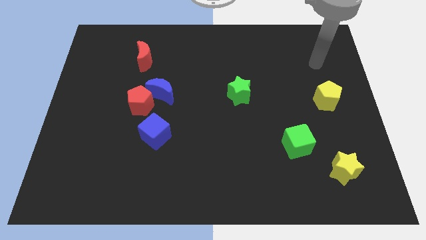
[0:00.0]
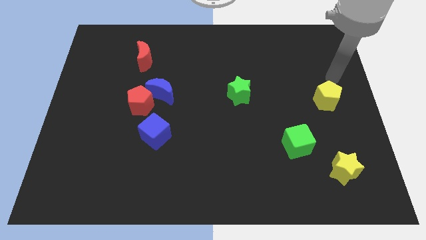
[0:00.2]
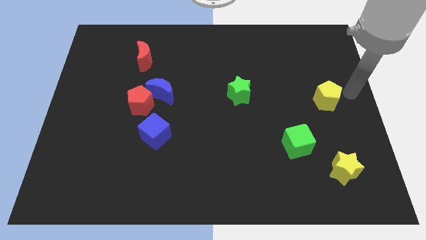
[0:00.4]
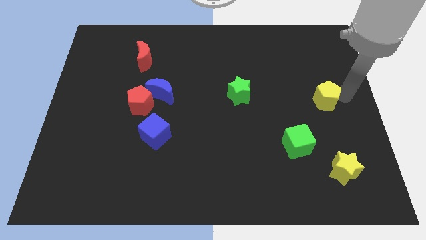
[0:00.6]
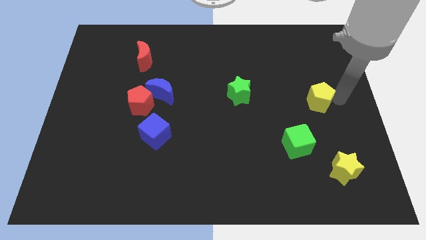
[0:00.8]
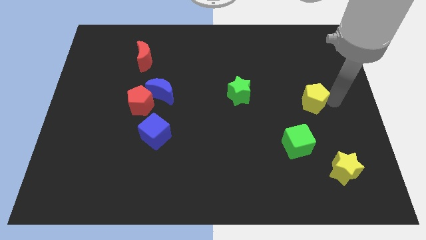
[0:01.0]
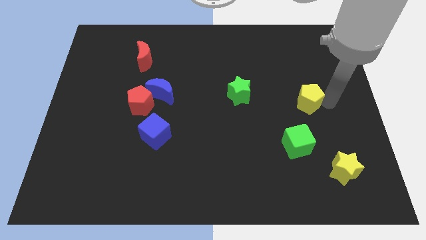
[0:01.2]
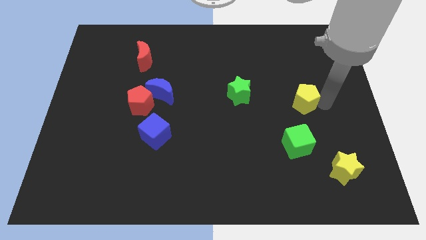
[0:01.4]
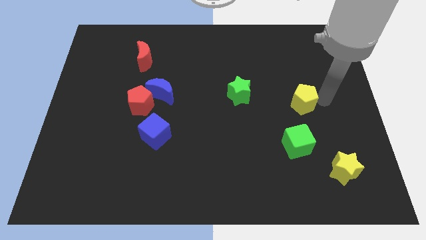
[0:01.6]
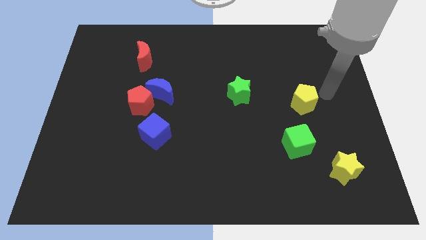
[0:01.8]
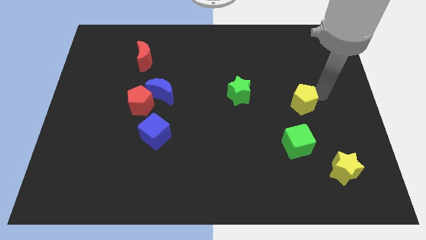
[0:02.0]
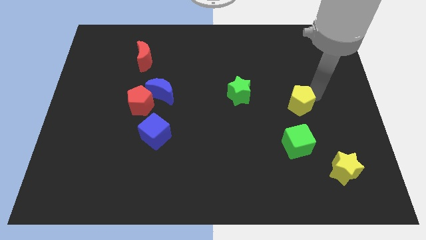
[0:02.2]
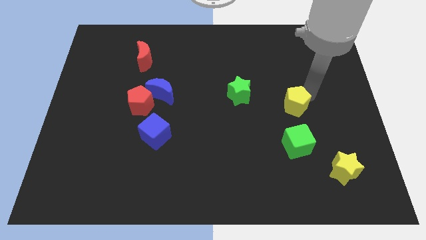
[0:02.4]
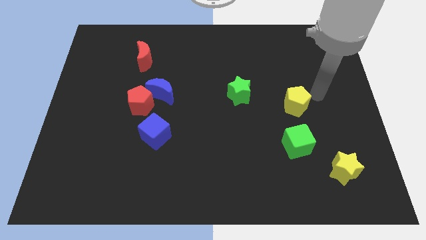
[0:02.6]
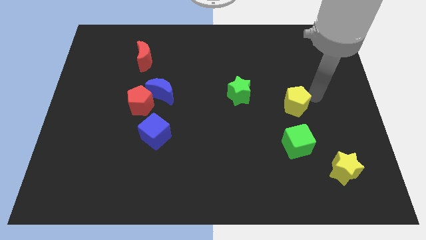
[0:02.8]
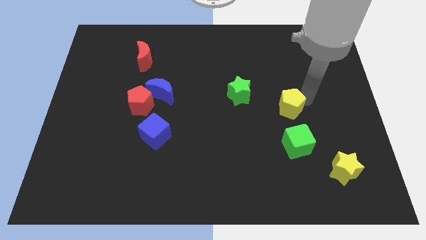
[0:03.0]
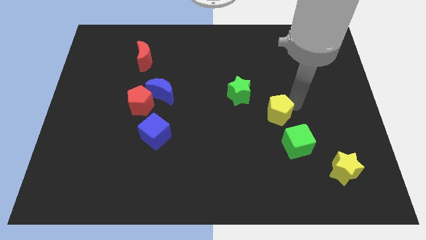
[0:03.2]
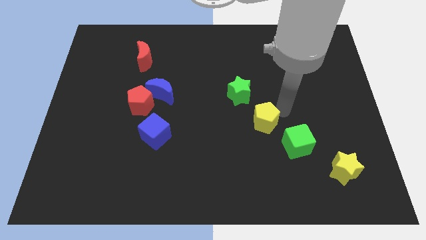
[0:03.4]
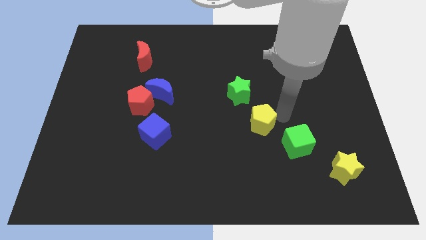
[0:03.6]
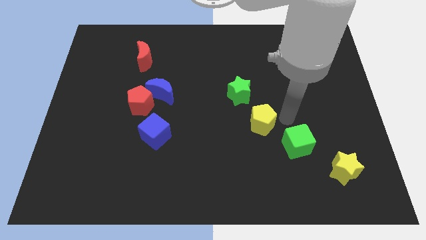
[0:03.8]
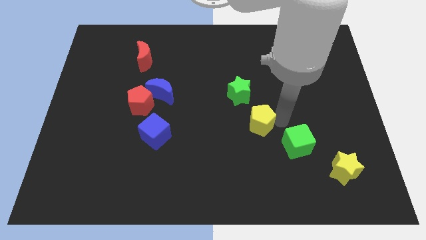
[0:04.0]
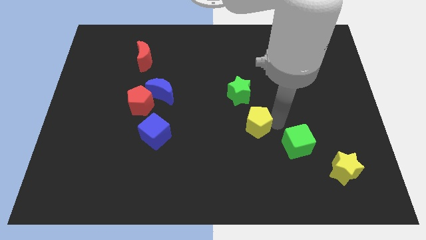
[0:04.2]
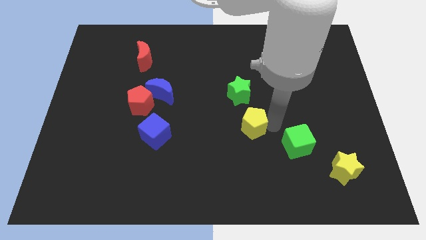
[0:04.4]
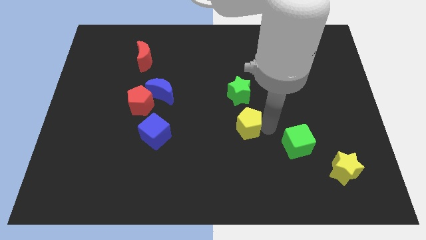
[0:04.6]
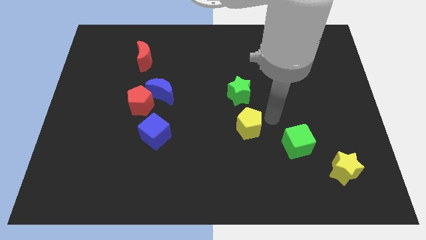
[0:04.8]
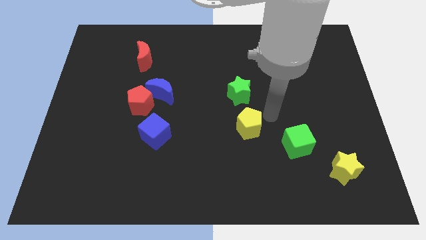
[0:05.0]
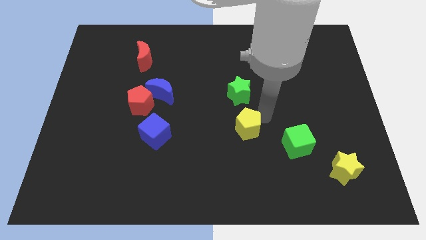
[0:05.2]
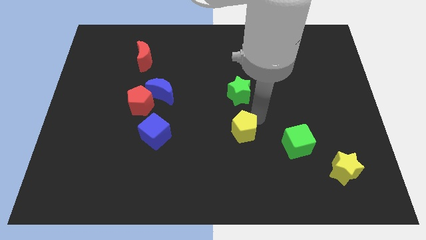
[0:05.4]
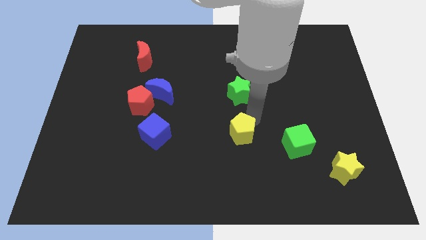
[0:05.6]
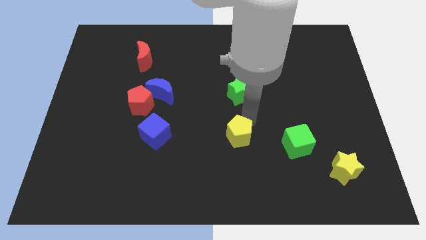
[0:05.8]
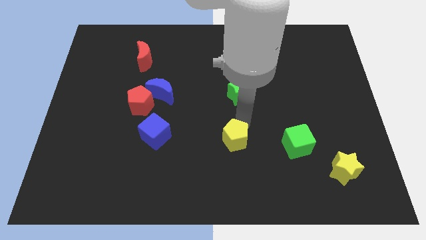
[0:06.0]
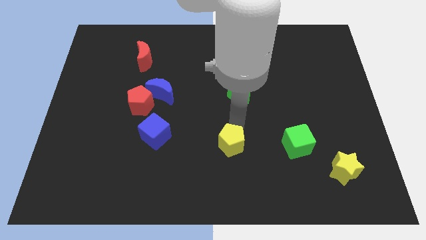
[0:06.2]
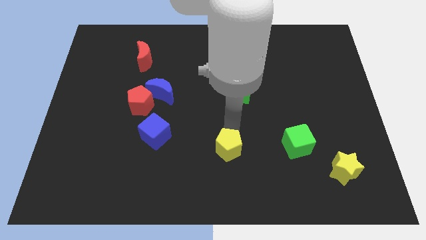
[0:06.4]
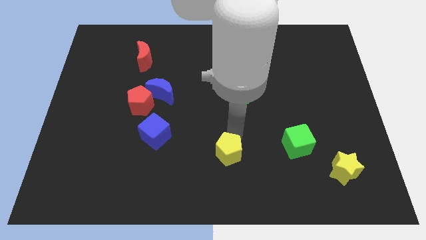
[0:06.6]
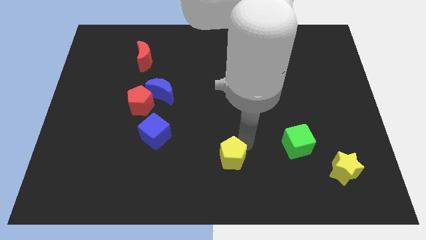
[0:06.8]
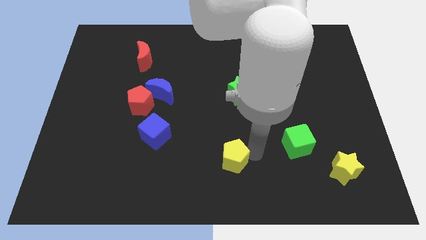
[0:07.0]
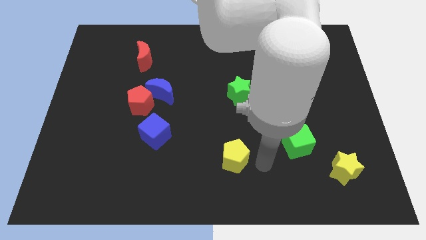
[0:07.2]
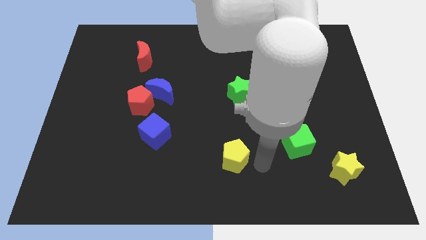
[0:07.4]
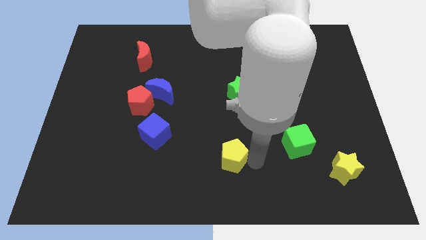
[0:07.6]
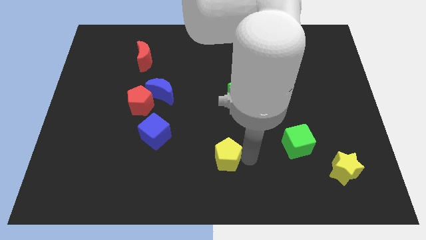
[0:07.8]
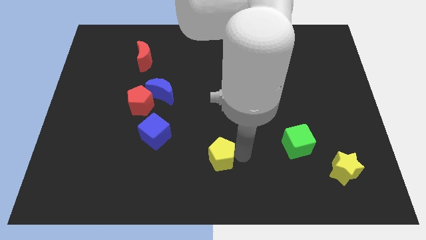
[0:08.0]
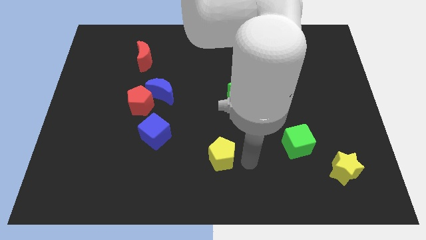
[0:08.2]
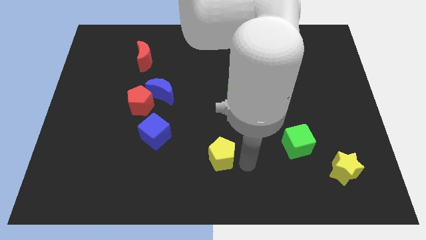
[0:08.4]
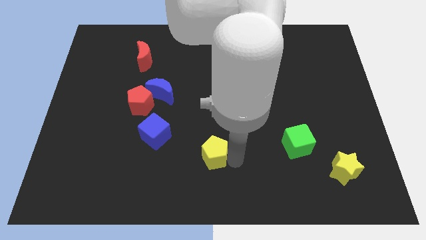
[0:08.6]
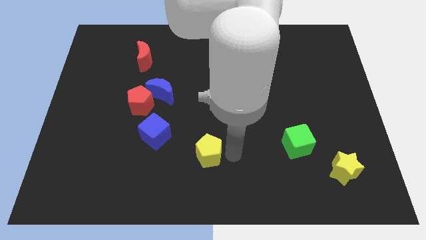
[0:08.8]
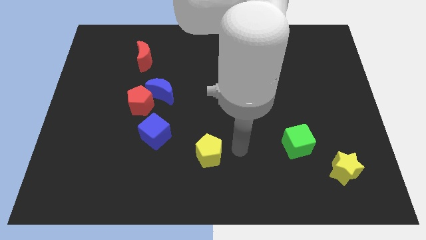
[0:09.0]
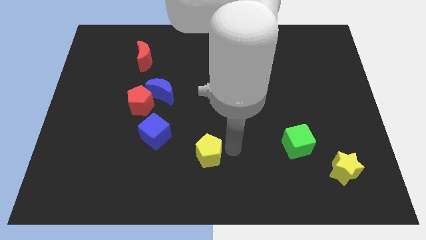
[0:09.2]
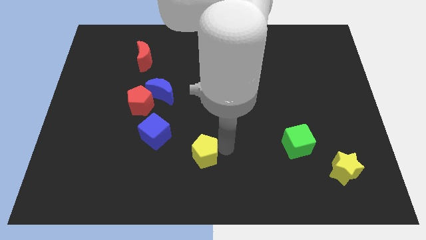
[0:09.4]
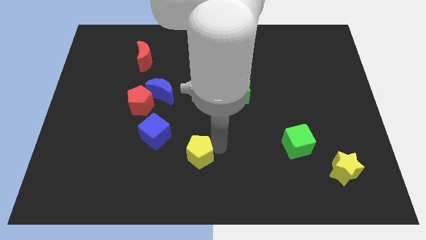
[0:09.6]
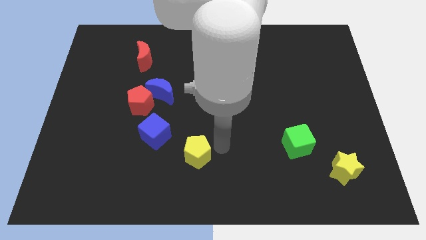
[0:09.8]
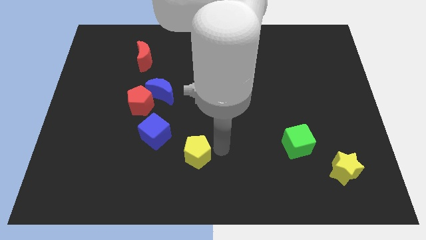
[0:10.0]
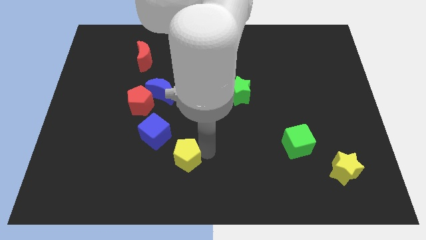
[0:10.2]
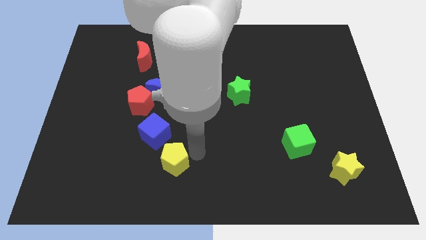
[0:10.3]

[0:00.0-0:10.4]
move the yellow pentagon to the bottom of the blue cube

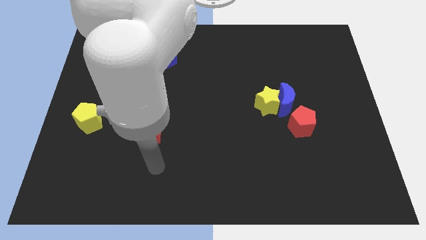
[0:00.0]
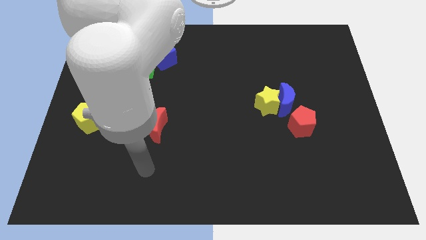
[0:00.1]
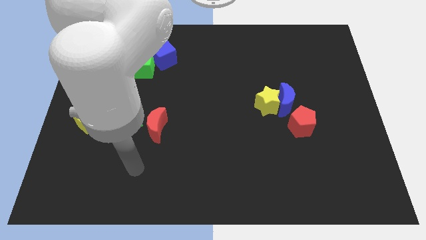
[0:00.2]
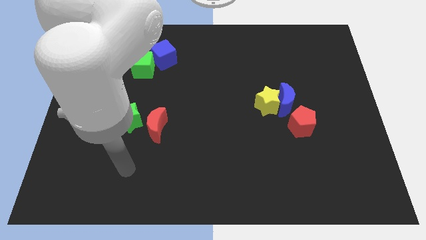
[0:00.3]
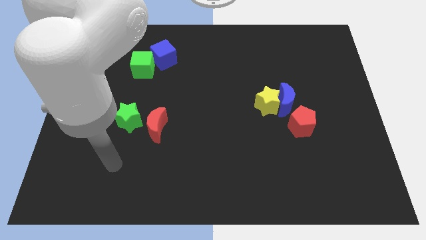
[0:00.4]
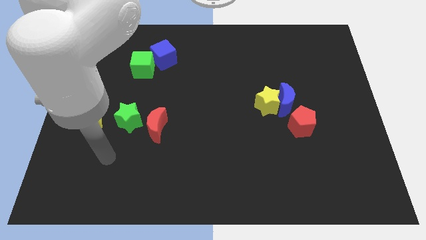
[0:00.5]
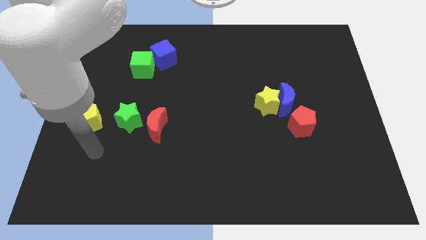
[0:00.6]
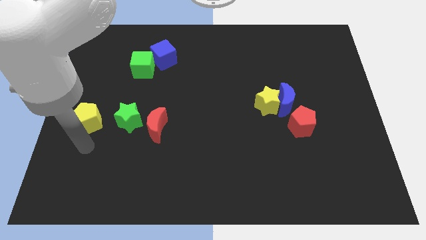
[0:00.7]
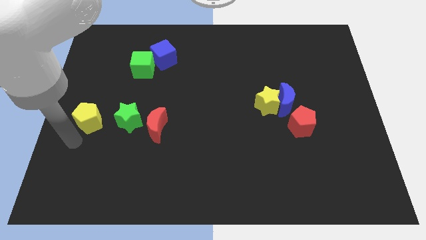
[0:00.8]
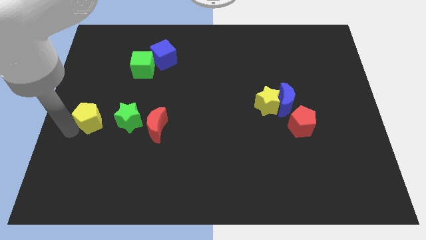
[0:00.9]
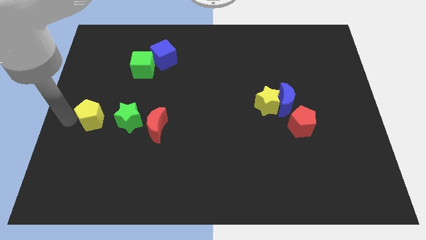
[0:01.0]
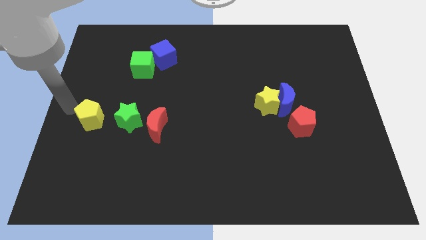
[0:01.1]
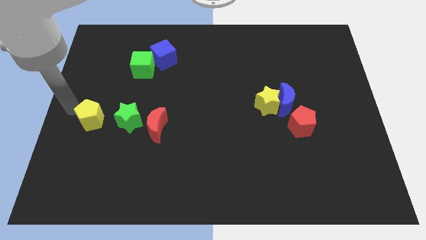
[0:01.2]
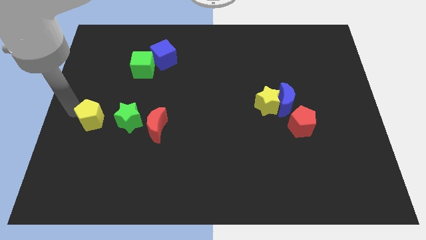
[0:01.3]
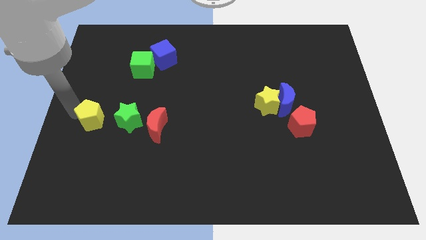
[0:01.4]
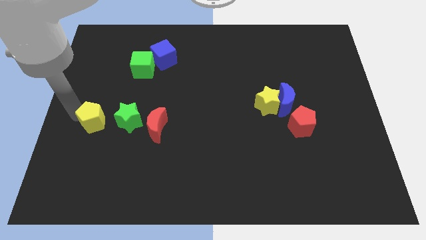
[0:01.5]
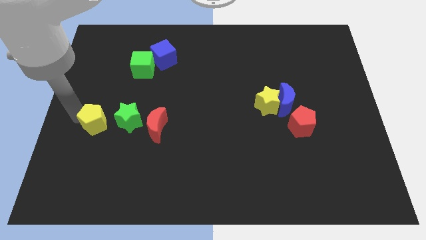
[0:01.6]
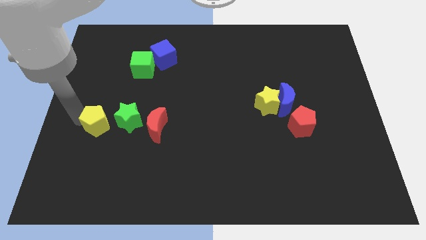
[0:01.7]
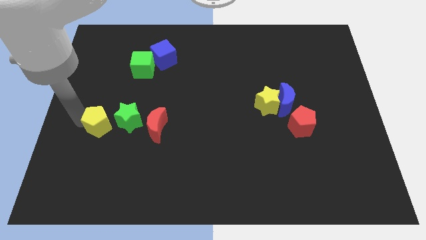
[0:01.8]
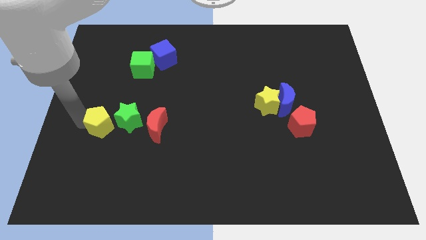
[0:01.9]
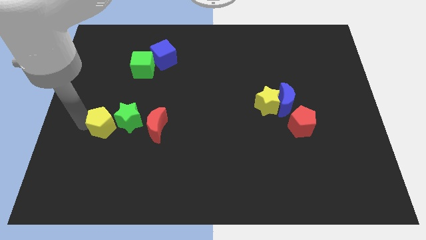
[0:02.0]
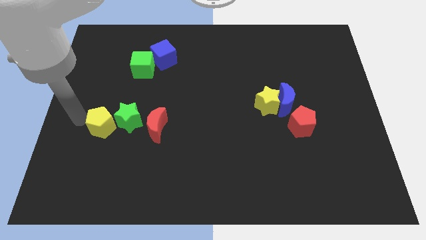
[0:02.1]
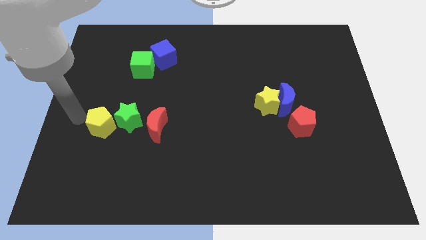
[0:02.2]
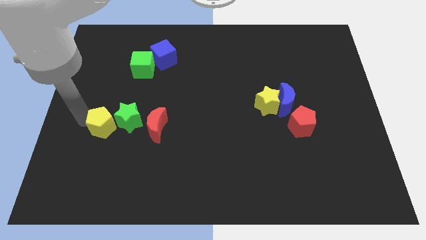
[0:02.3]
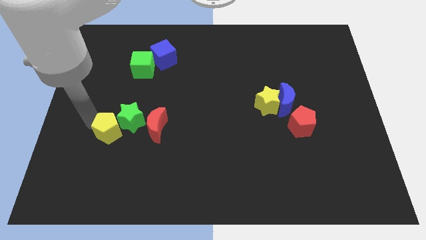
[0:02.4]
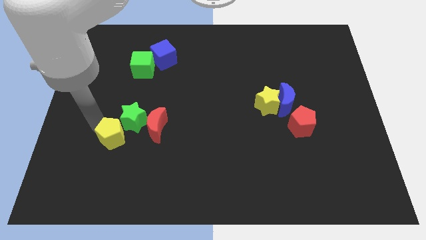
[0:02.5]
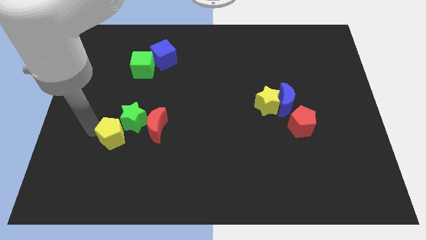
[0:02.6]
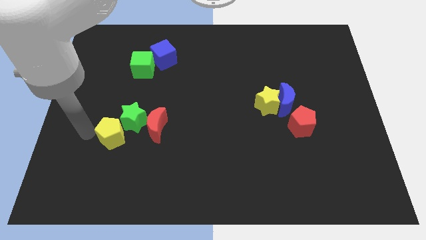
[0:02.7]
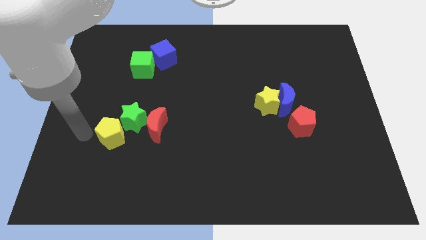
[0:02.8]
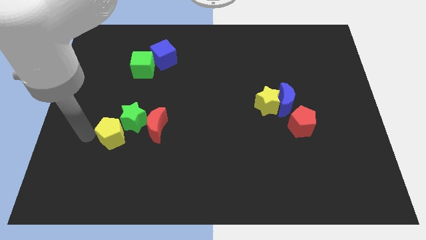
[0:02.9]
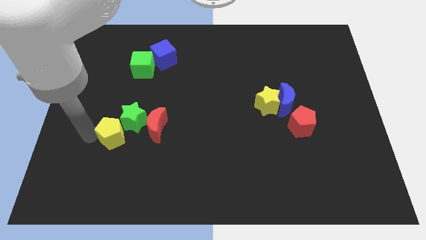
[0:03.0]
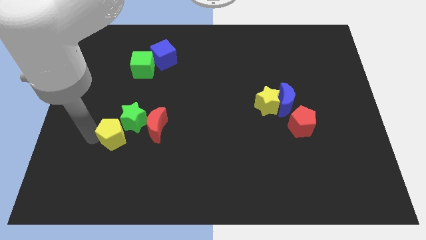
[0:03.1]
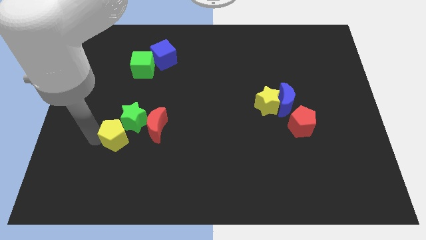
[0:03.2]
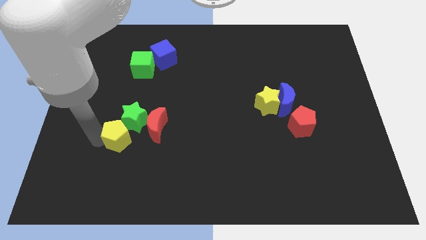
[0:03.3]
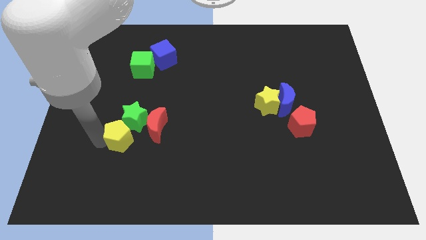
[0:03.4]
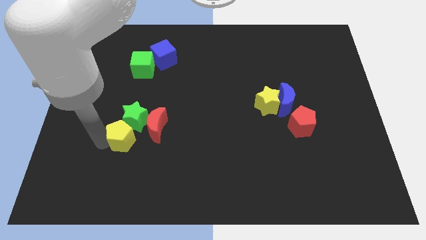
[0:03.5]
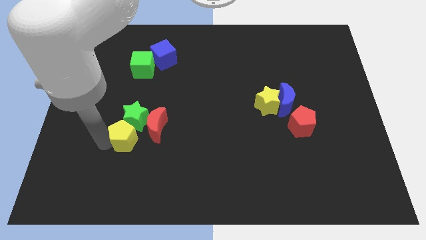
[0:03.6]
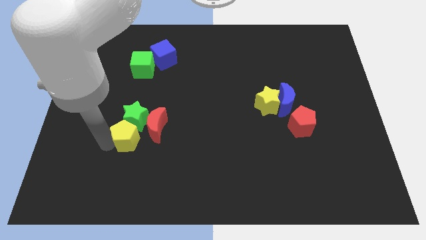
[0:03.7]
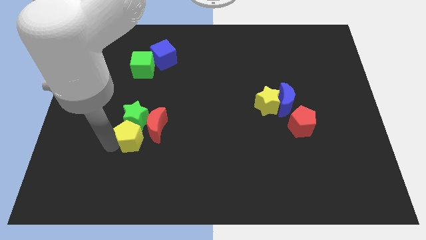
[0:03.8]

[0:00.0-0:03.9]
push the yellow pentagon to the bottom right of the green star
